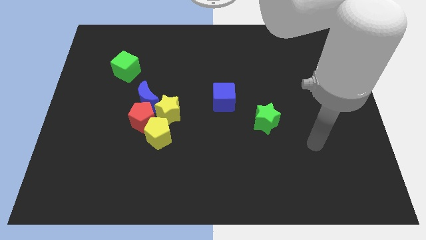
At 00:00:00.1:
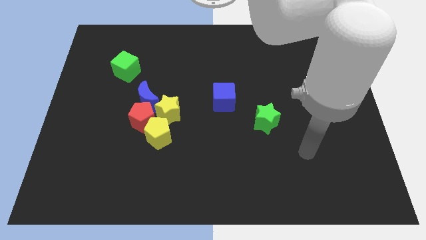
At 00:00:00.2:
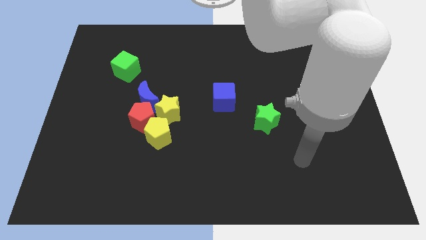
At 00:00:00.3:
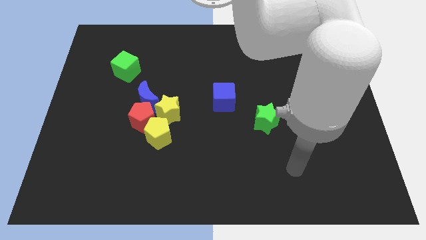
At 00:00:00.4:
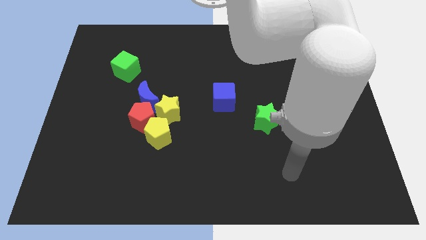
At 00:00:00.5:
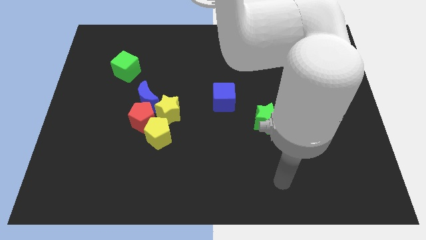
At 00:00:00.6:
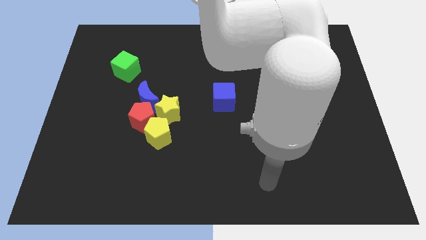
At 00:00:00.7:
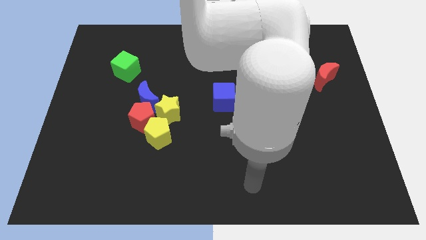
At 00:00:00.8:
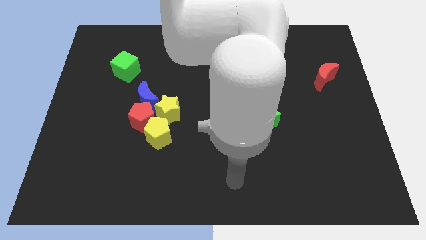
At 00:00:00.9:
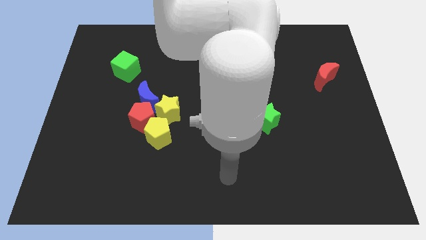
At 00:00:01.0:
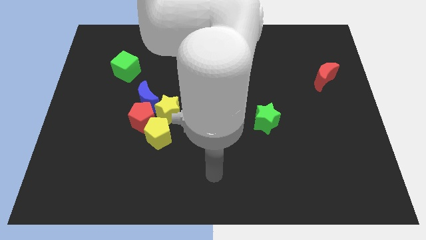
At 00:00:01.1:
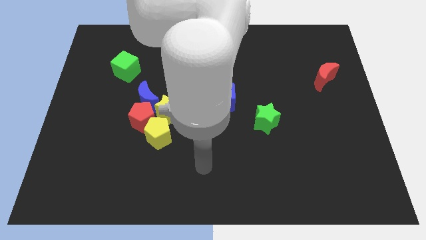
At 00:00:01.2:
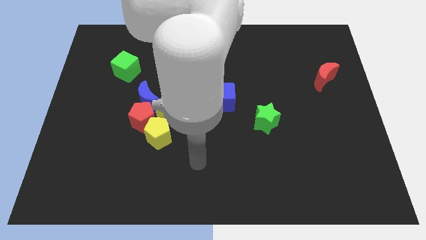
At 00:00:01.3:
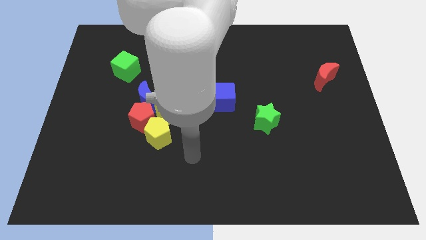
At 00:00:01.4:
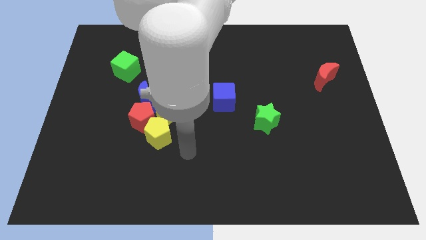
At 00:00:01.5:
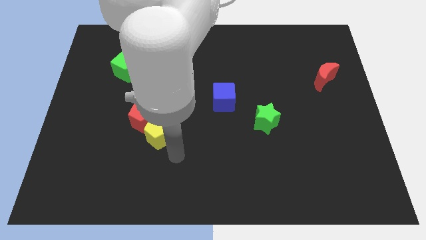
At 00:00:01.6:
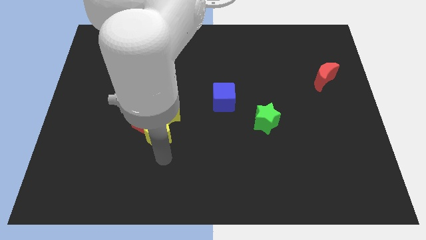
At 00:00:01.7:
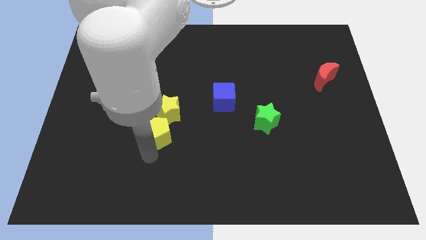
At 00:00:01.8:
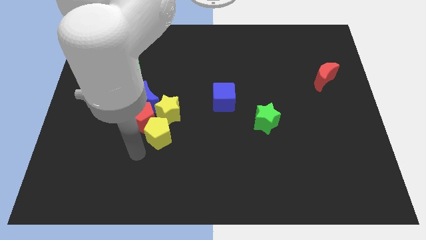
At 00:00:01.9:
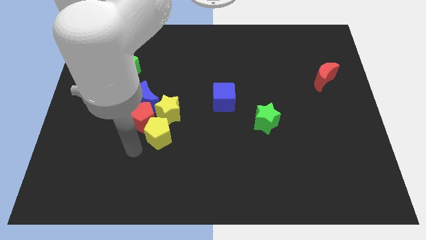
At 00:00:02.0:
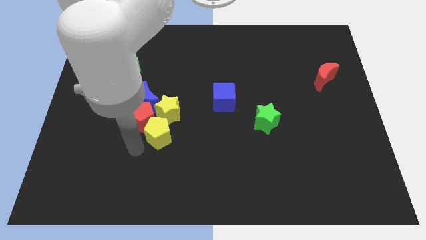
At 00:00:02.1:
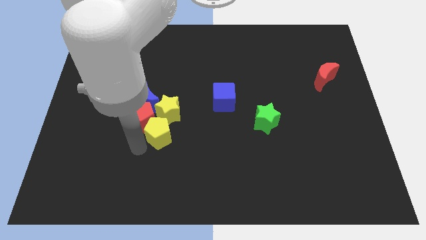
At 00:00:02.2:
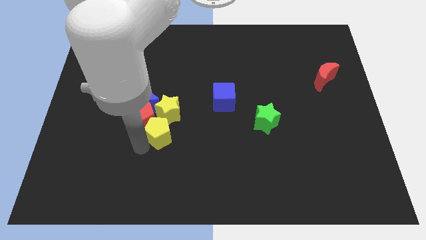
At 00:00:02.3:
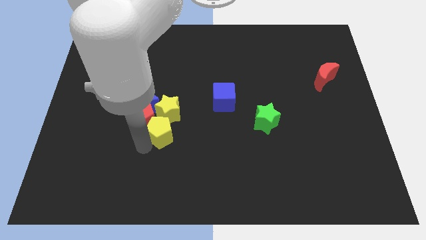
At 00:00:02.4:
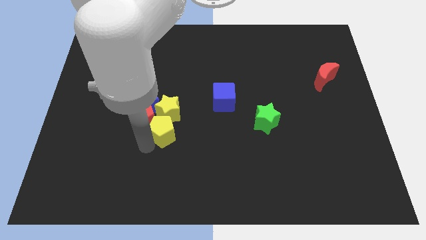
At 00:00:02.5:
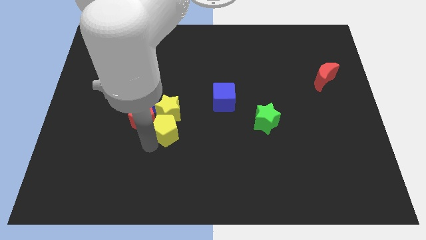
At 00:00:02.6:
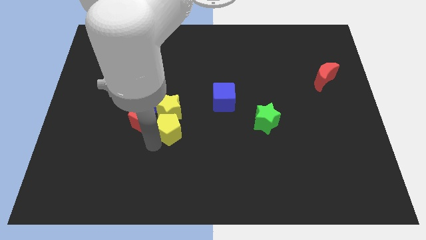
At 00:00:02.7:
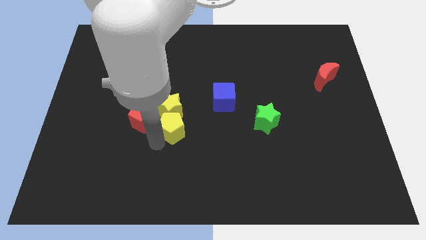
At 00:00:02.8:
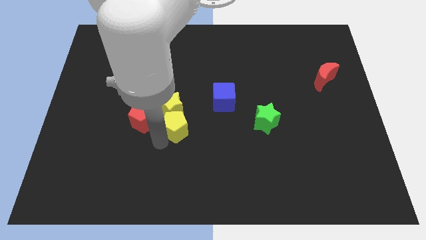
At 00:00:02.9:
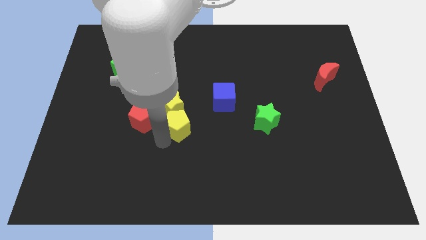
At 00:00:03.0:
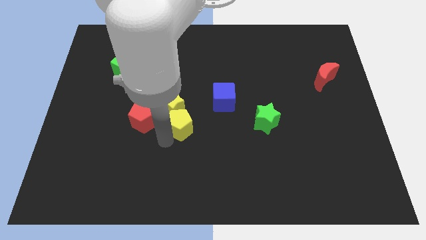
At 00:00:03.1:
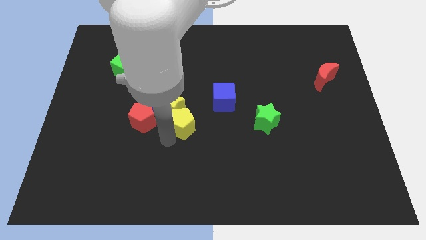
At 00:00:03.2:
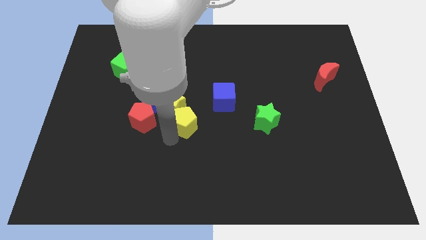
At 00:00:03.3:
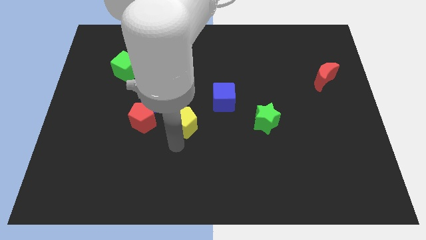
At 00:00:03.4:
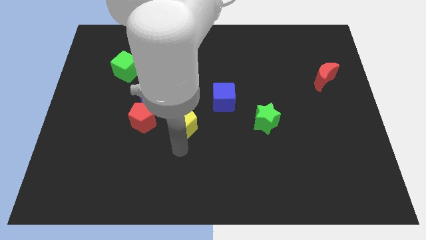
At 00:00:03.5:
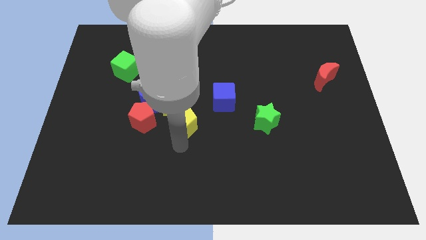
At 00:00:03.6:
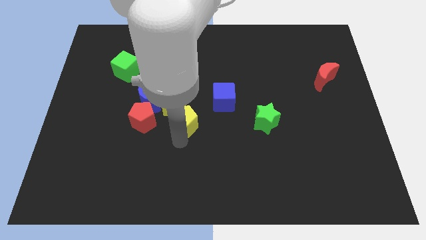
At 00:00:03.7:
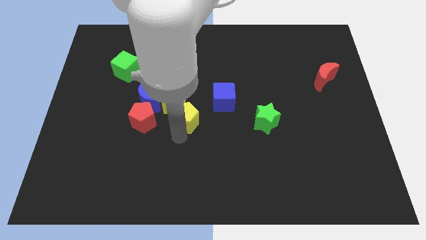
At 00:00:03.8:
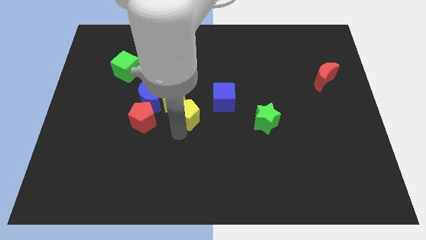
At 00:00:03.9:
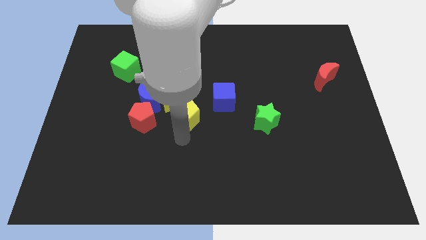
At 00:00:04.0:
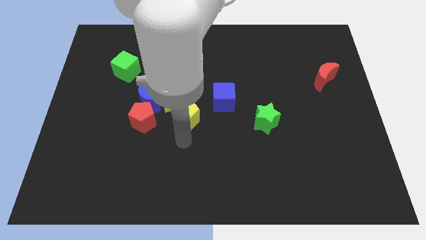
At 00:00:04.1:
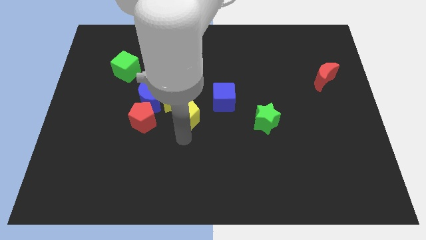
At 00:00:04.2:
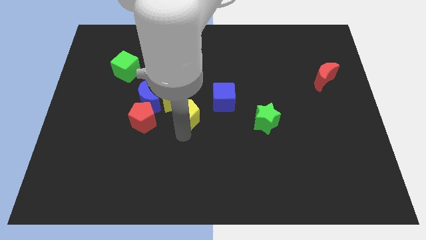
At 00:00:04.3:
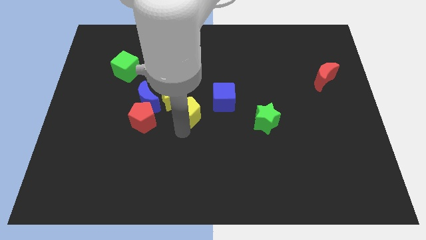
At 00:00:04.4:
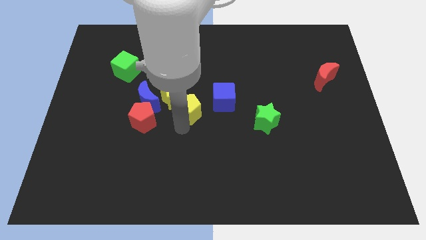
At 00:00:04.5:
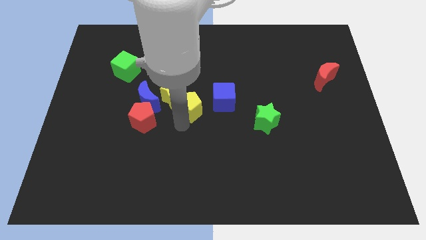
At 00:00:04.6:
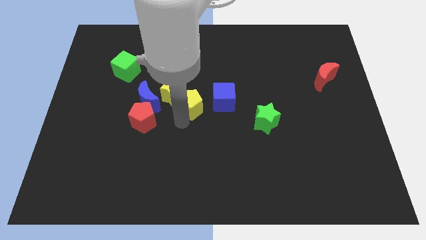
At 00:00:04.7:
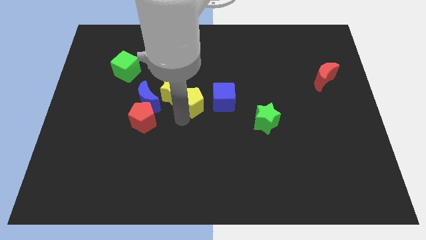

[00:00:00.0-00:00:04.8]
slightly move the yellow pentagon upwards

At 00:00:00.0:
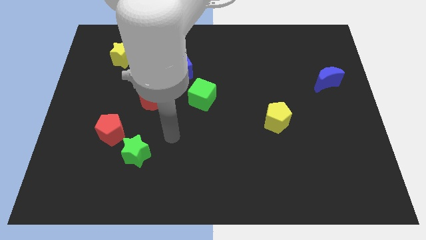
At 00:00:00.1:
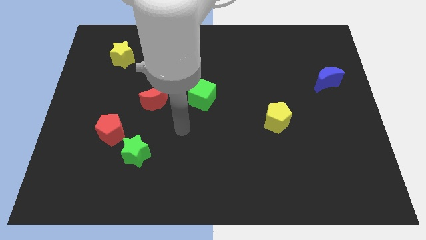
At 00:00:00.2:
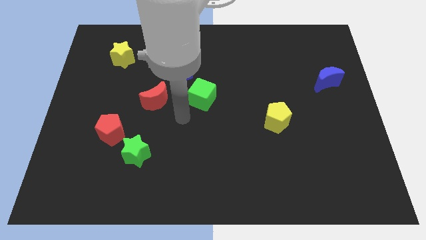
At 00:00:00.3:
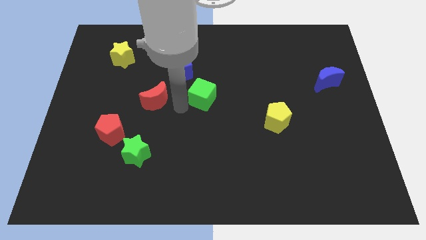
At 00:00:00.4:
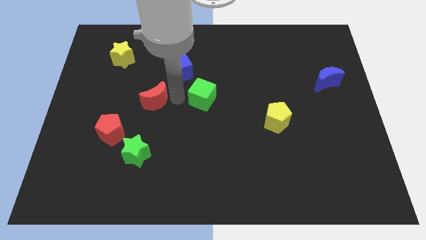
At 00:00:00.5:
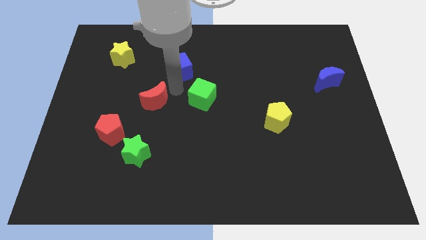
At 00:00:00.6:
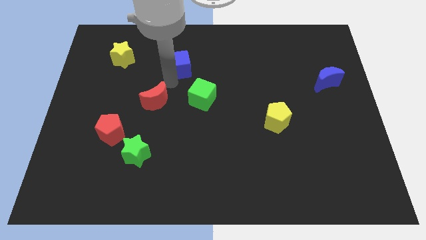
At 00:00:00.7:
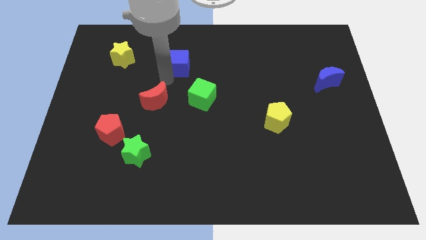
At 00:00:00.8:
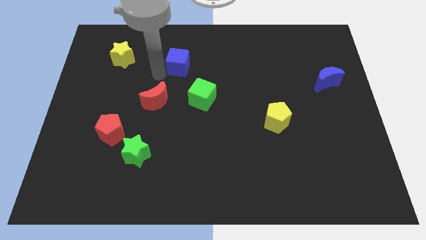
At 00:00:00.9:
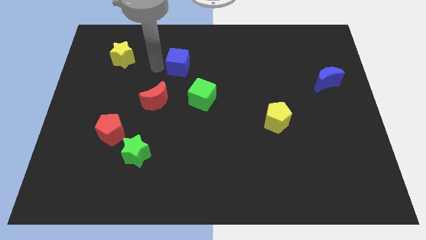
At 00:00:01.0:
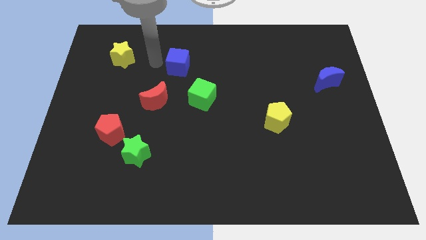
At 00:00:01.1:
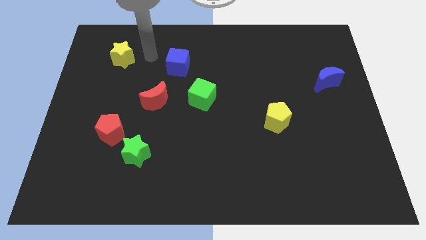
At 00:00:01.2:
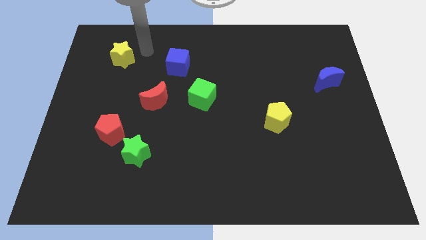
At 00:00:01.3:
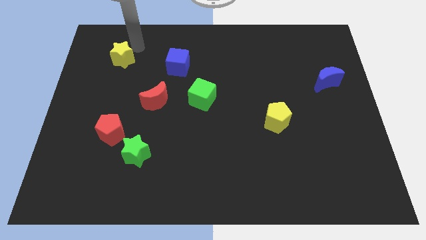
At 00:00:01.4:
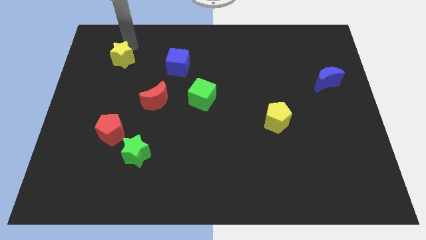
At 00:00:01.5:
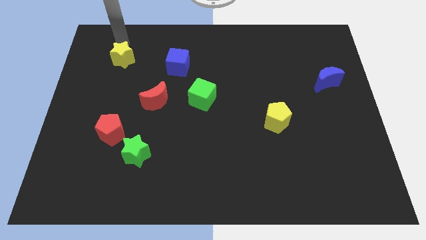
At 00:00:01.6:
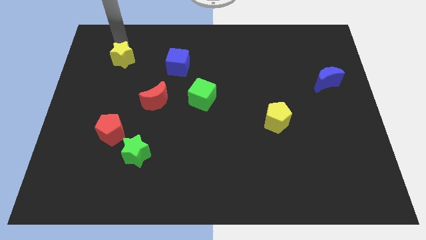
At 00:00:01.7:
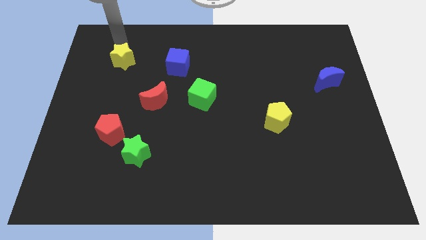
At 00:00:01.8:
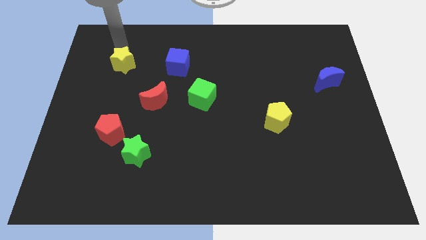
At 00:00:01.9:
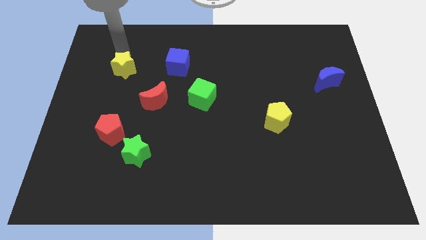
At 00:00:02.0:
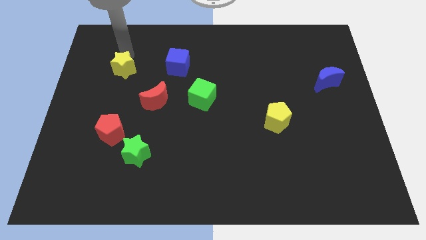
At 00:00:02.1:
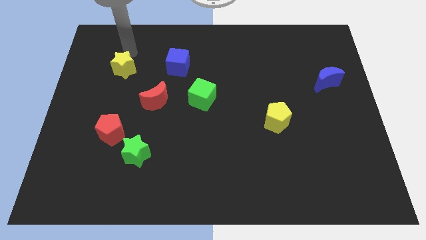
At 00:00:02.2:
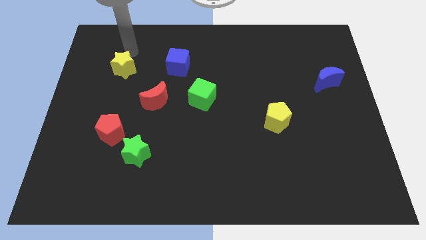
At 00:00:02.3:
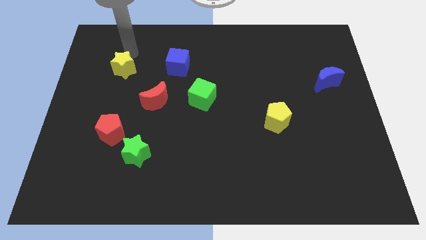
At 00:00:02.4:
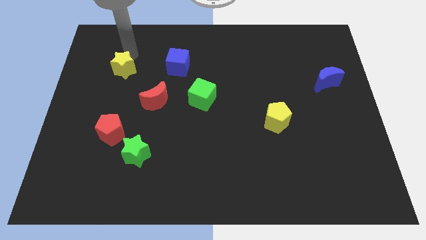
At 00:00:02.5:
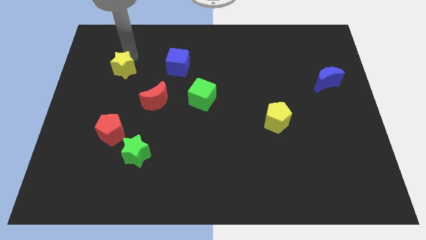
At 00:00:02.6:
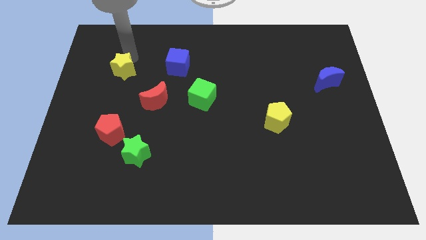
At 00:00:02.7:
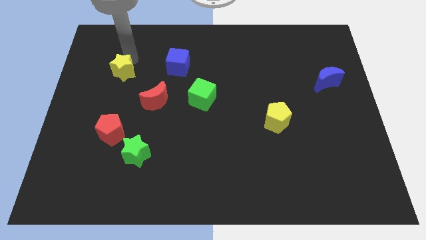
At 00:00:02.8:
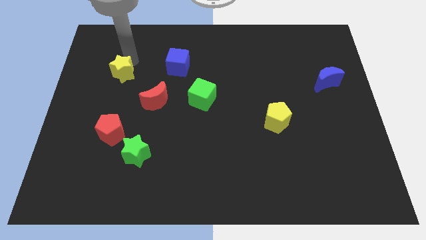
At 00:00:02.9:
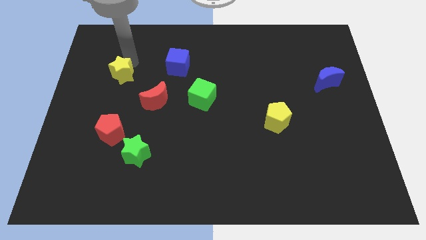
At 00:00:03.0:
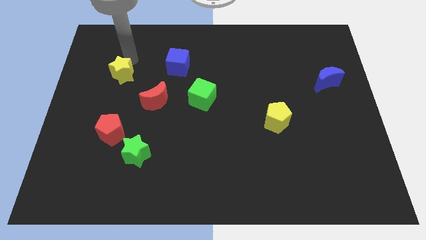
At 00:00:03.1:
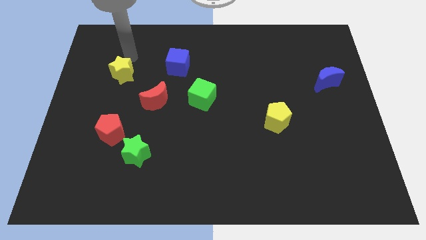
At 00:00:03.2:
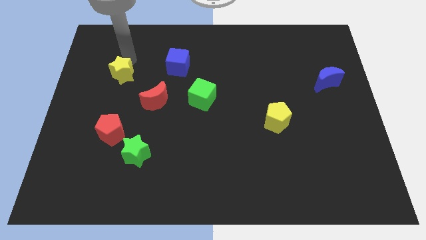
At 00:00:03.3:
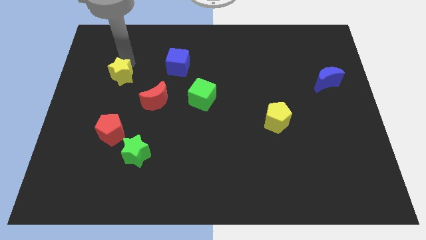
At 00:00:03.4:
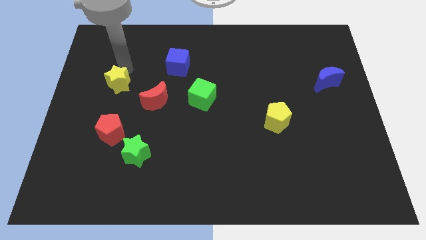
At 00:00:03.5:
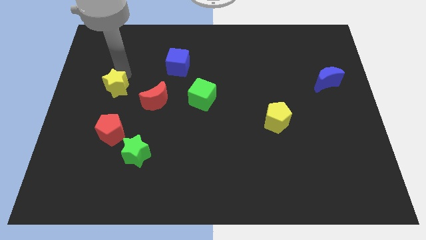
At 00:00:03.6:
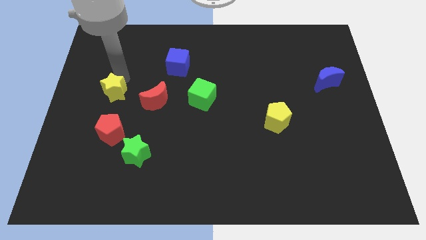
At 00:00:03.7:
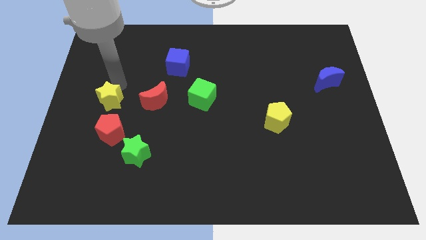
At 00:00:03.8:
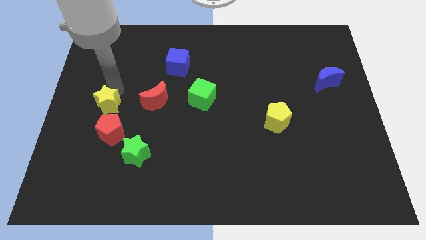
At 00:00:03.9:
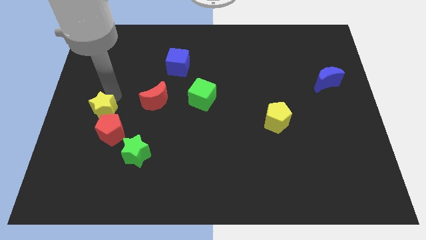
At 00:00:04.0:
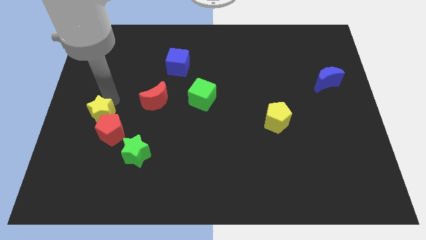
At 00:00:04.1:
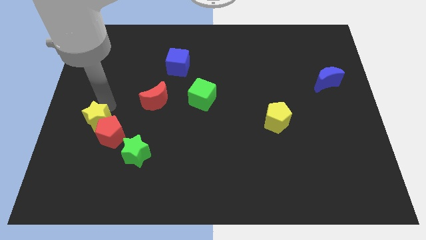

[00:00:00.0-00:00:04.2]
move the yellow star downwards
